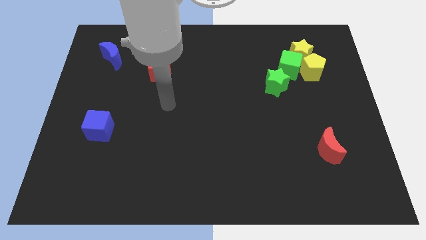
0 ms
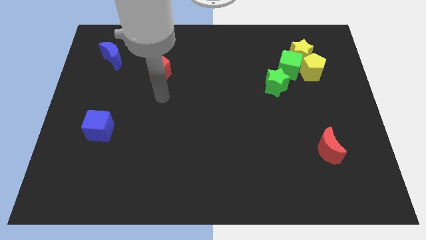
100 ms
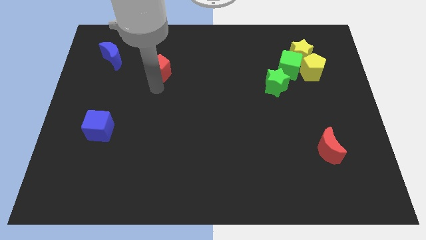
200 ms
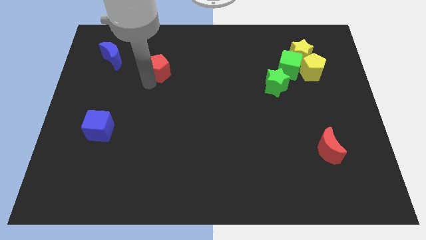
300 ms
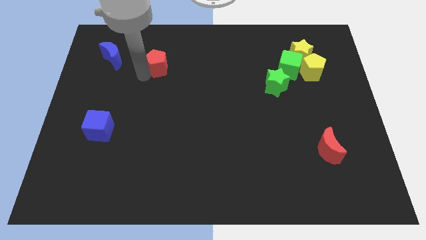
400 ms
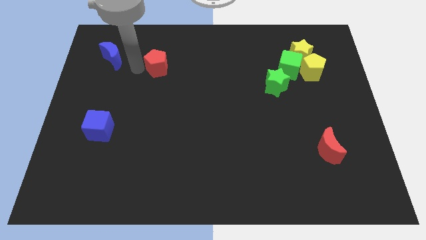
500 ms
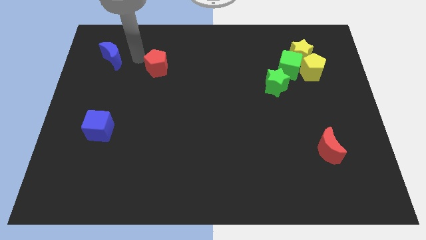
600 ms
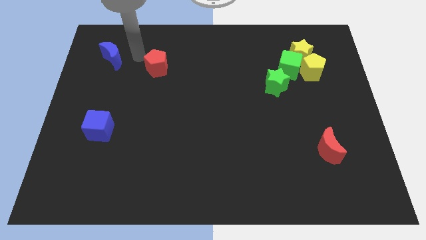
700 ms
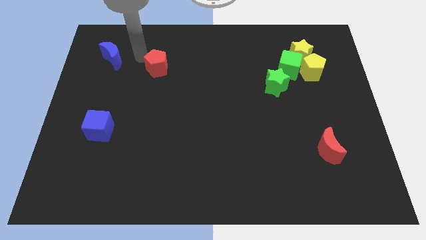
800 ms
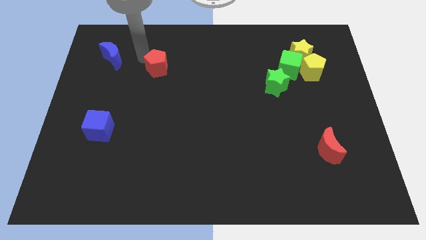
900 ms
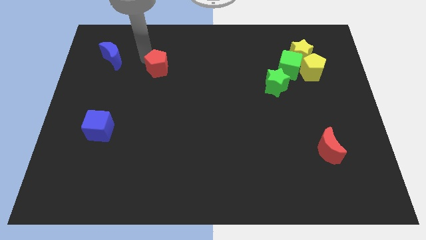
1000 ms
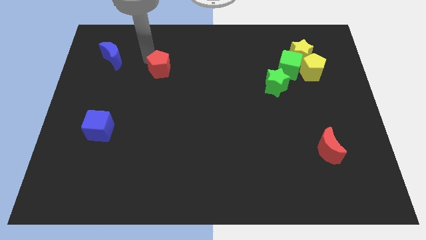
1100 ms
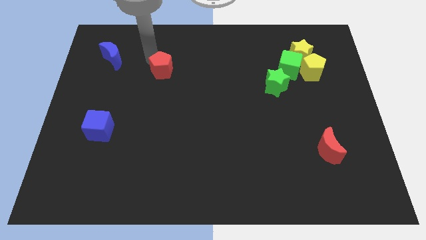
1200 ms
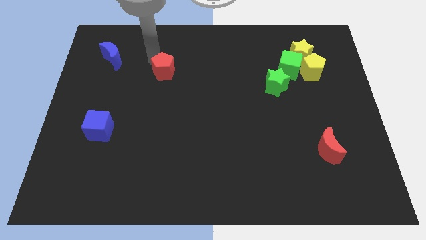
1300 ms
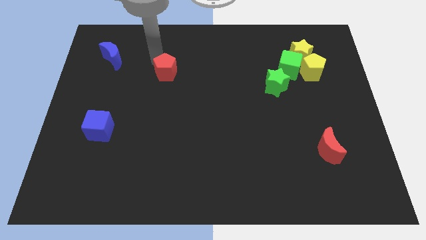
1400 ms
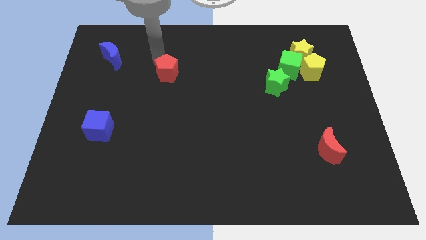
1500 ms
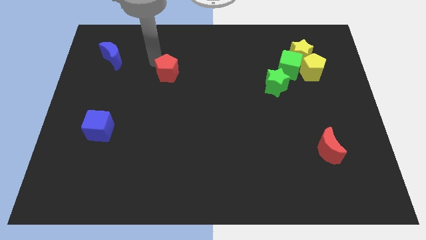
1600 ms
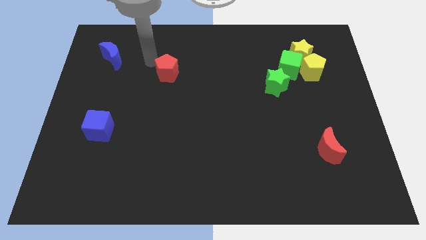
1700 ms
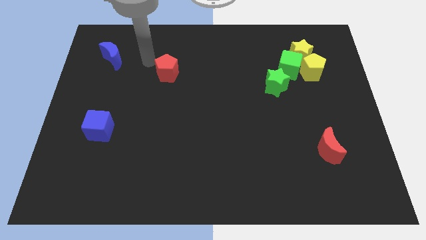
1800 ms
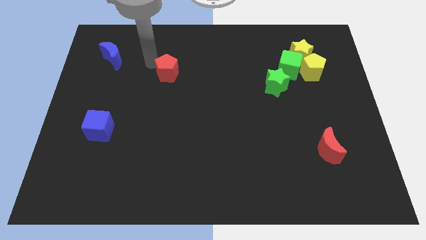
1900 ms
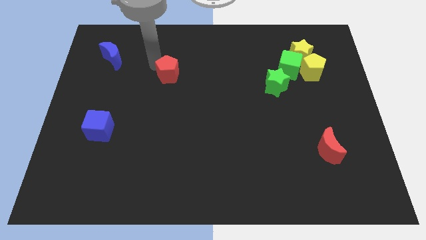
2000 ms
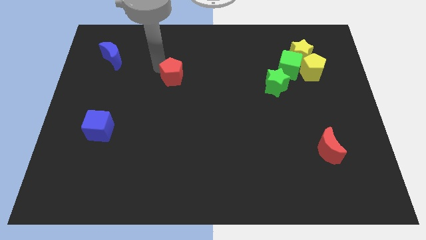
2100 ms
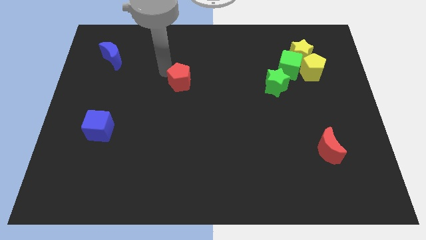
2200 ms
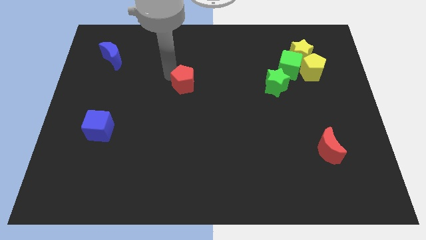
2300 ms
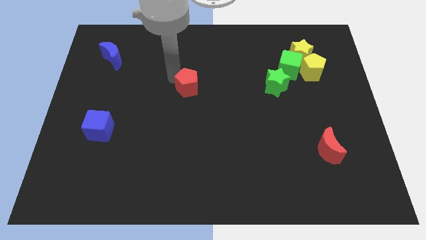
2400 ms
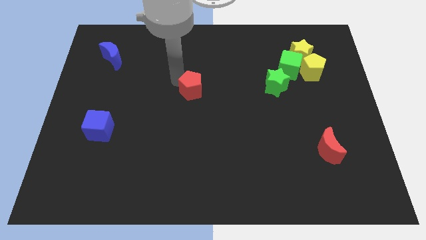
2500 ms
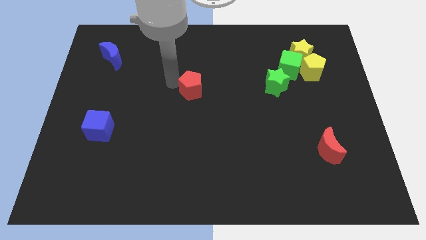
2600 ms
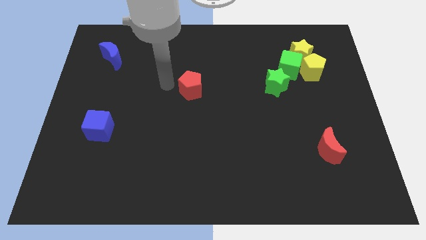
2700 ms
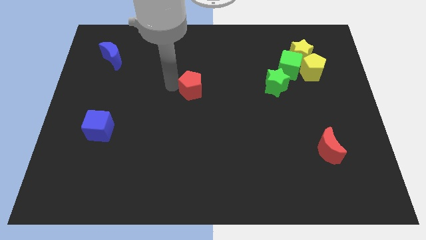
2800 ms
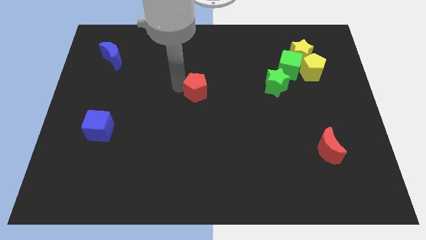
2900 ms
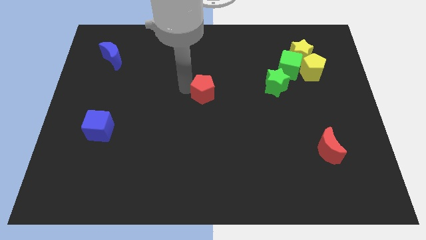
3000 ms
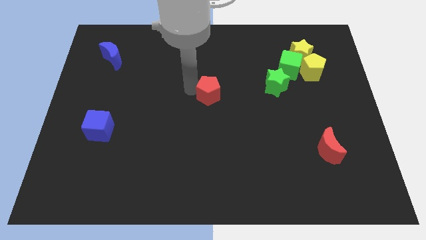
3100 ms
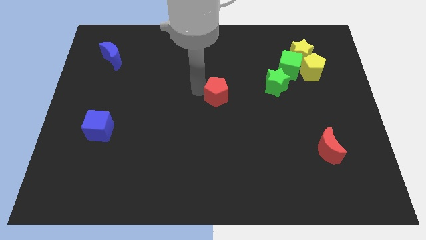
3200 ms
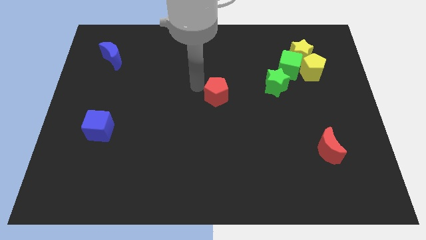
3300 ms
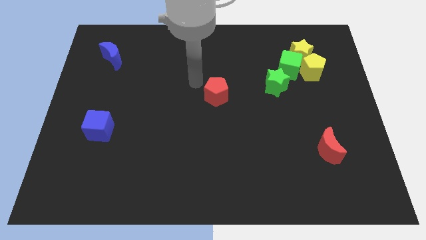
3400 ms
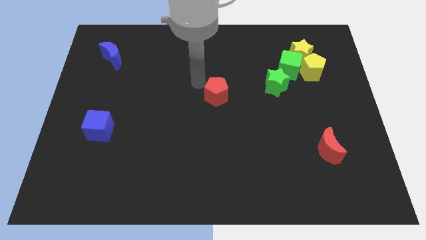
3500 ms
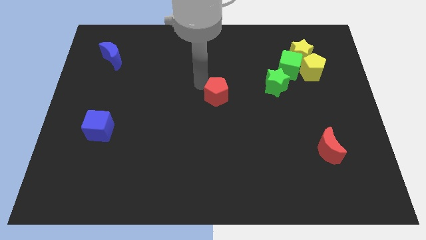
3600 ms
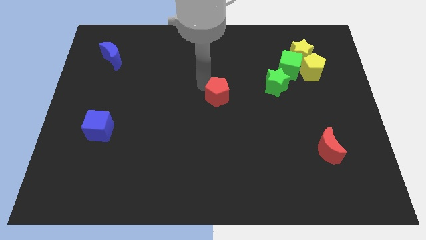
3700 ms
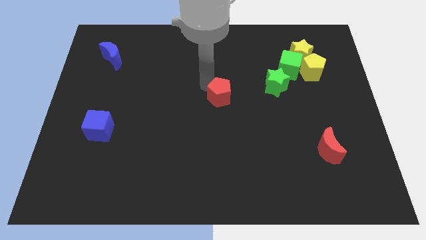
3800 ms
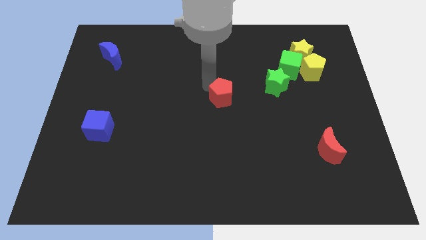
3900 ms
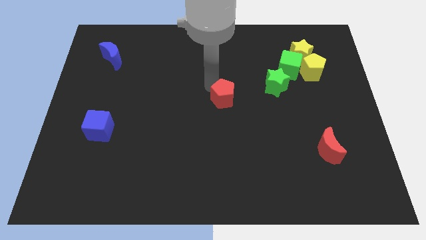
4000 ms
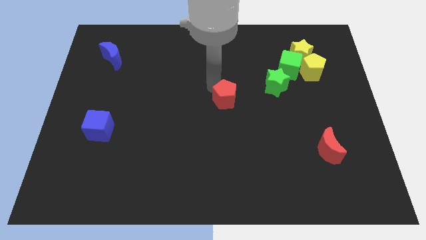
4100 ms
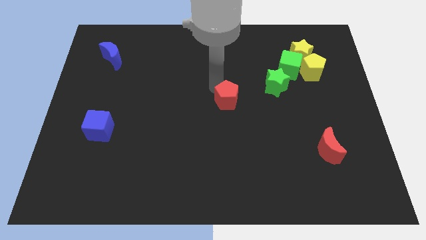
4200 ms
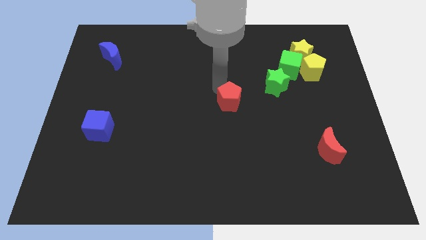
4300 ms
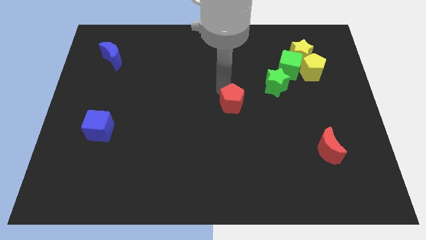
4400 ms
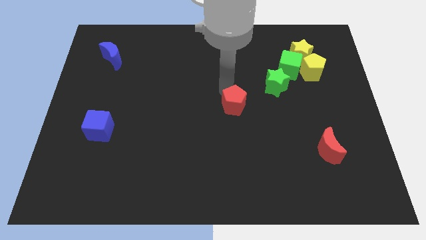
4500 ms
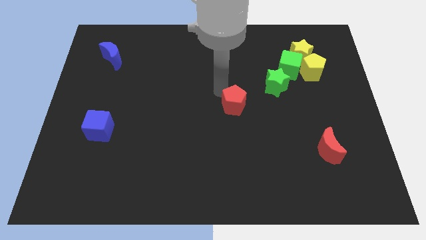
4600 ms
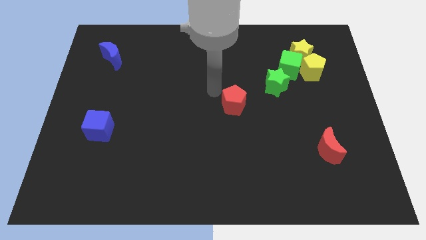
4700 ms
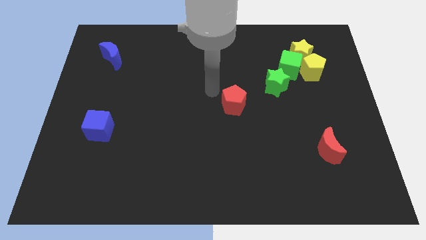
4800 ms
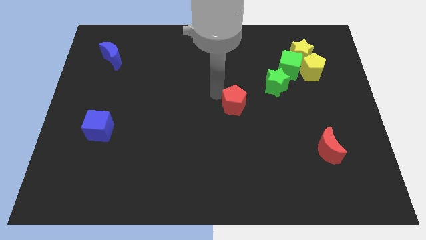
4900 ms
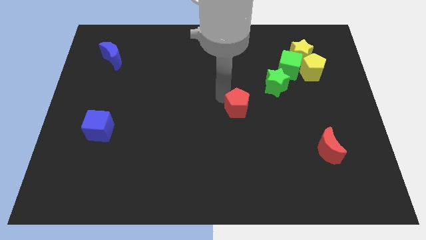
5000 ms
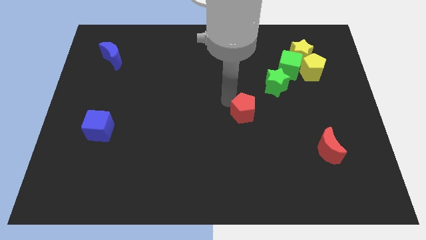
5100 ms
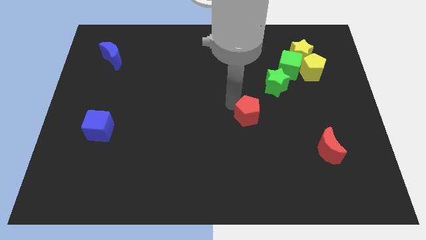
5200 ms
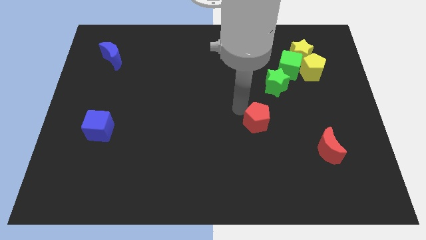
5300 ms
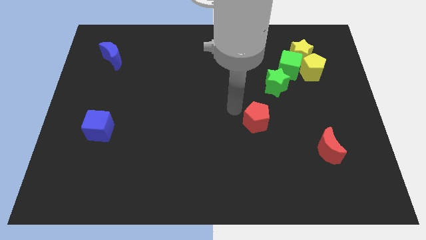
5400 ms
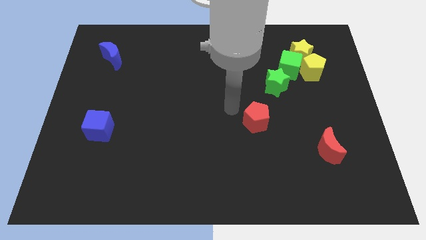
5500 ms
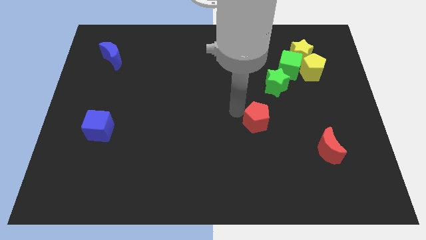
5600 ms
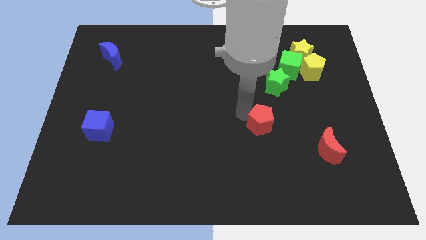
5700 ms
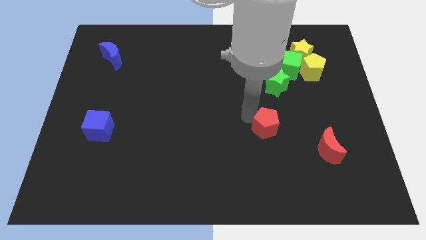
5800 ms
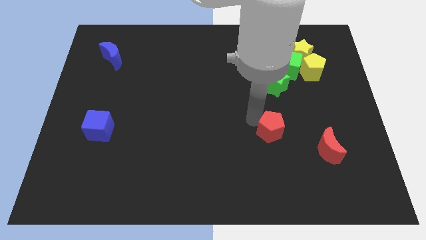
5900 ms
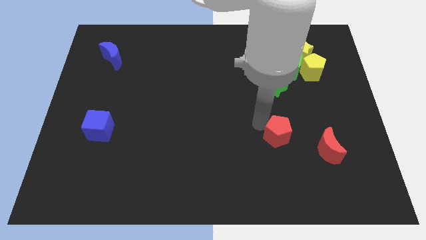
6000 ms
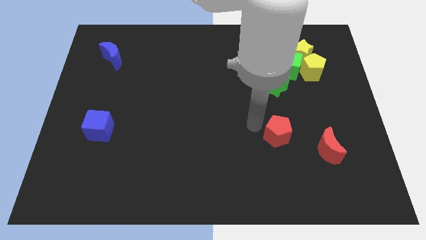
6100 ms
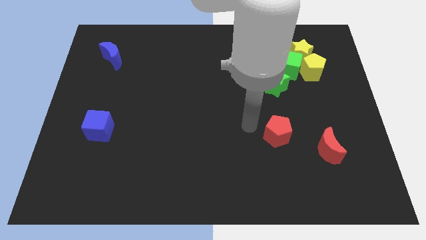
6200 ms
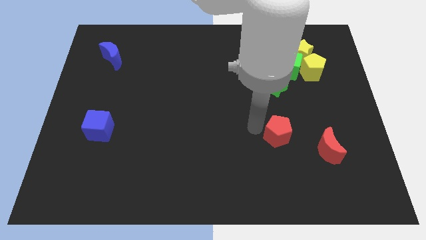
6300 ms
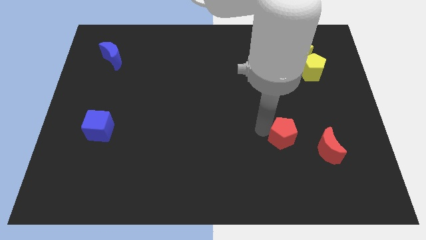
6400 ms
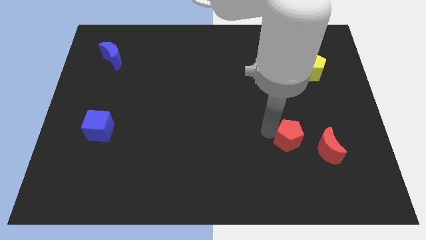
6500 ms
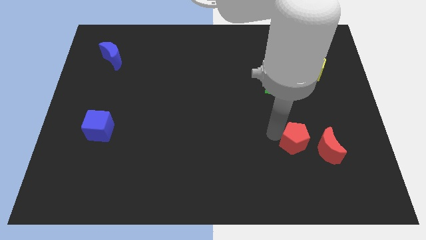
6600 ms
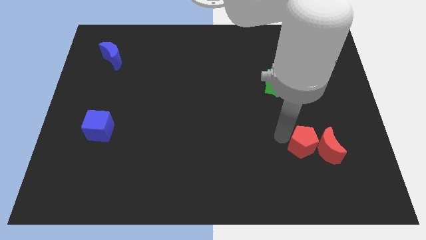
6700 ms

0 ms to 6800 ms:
slide the red pentagon next to the red moon
